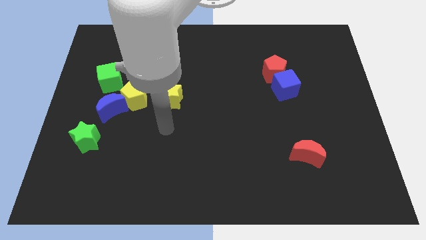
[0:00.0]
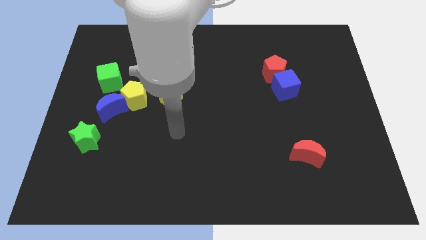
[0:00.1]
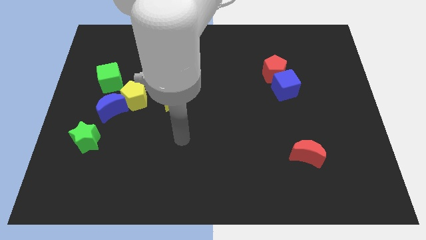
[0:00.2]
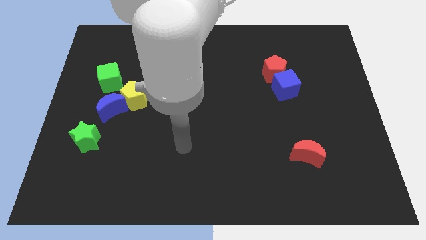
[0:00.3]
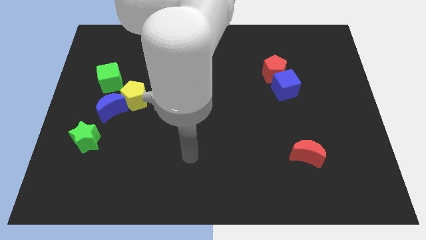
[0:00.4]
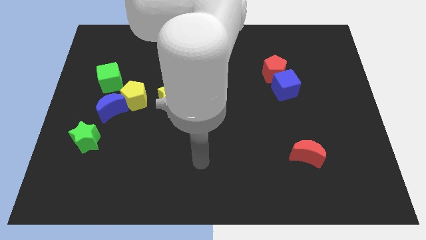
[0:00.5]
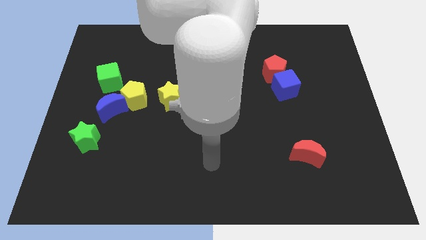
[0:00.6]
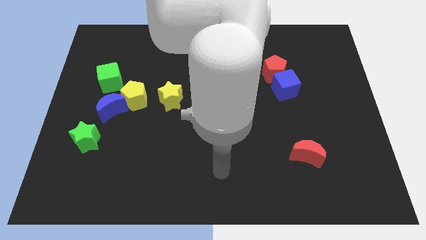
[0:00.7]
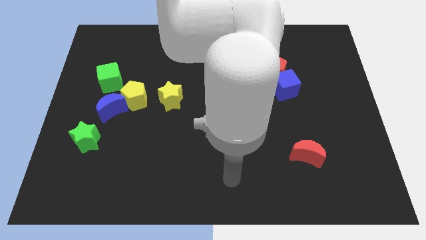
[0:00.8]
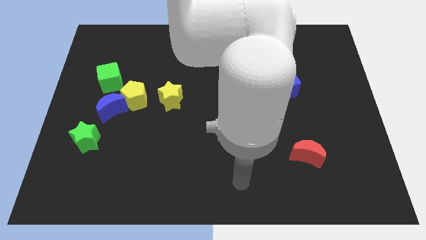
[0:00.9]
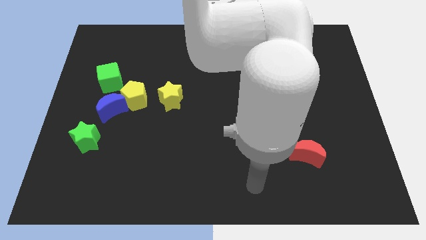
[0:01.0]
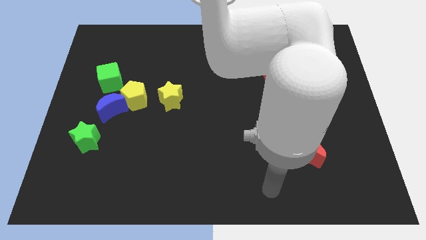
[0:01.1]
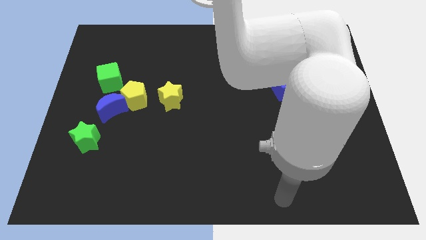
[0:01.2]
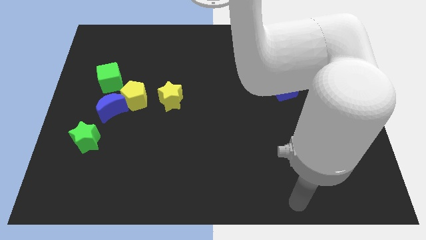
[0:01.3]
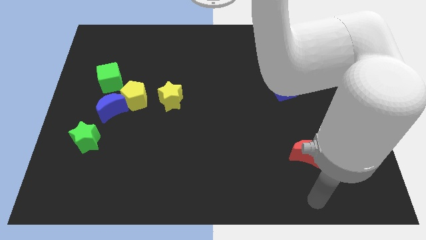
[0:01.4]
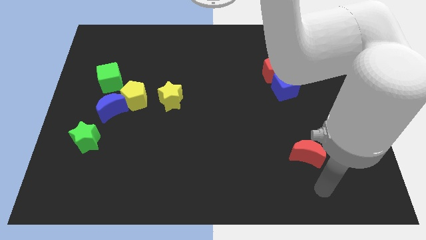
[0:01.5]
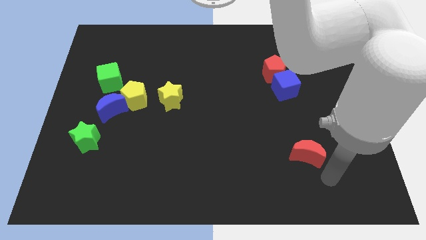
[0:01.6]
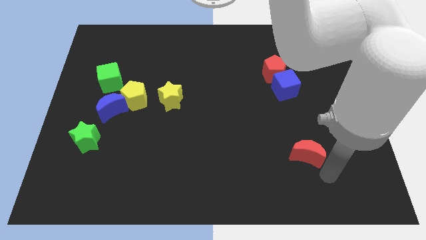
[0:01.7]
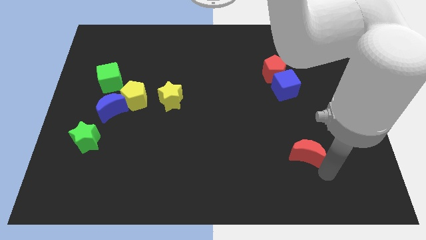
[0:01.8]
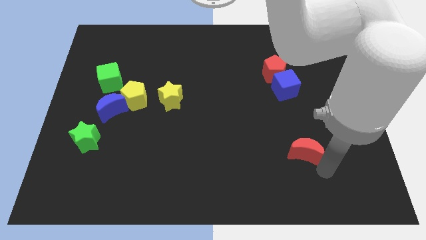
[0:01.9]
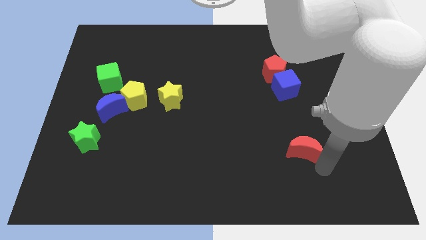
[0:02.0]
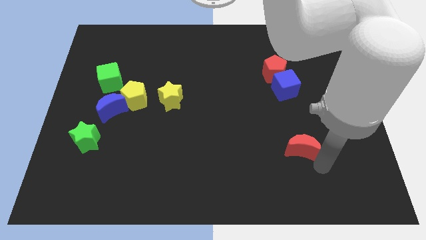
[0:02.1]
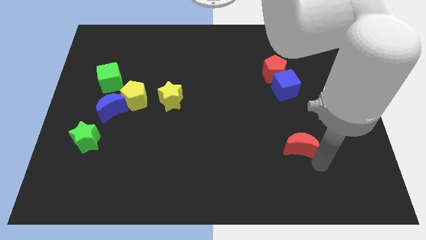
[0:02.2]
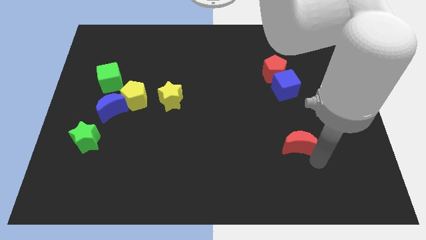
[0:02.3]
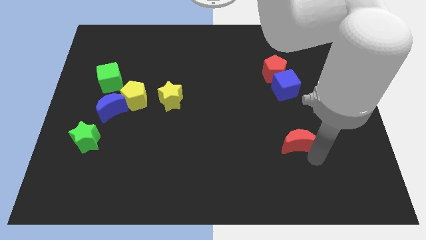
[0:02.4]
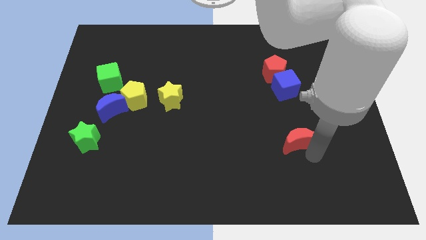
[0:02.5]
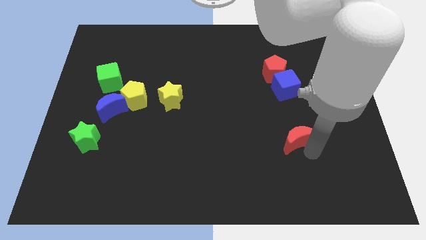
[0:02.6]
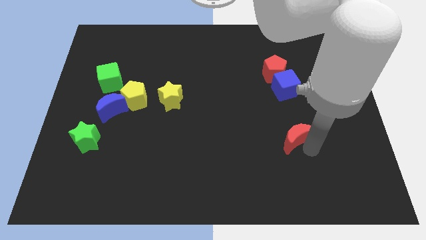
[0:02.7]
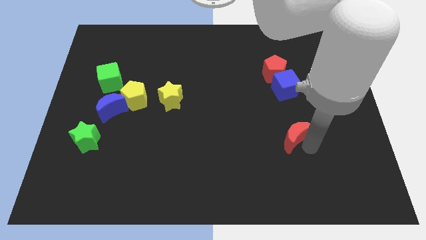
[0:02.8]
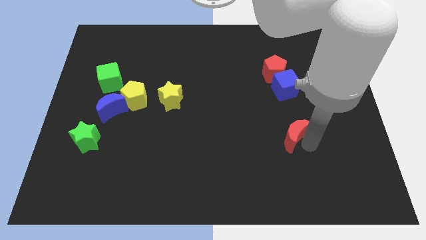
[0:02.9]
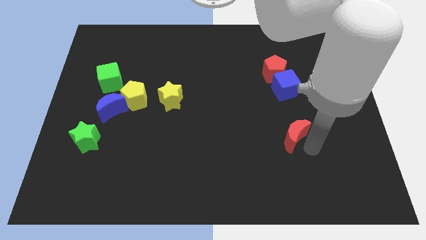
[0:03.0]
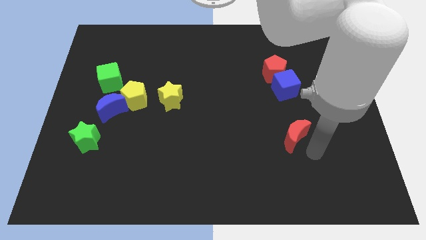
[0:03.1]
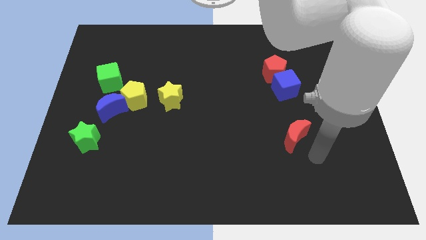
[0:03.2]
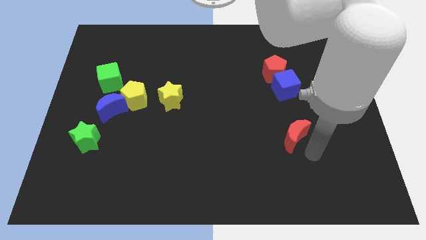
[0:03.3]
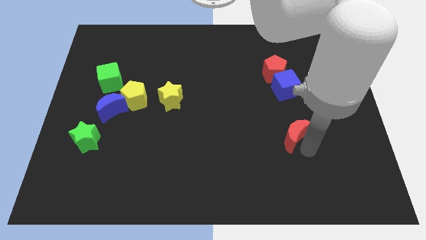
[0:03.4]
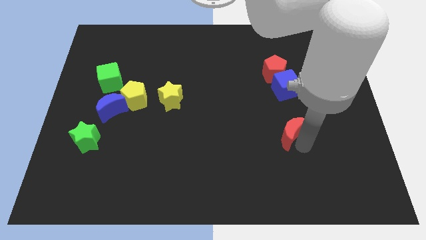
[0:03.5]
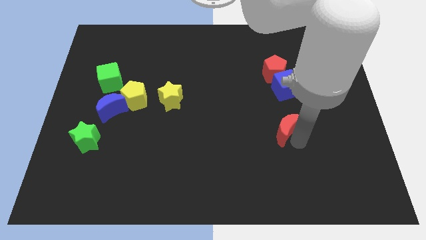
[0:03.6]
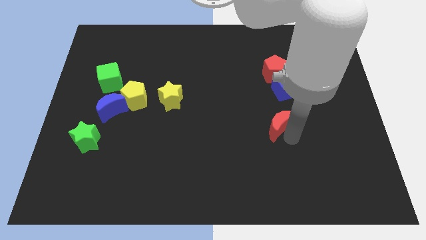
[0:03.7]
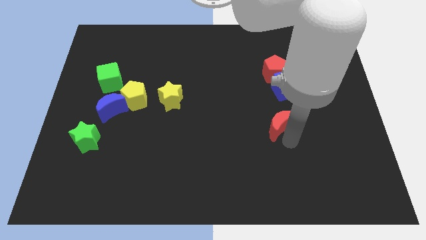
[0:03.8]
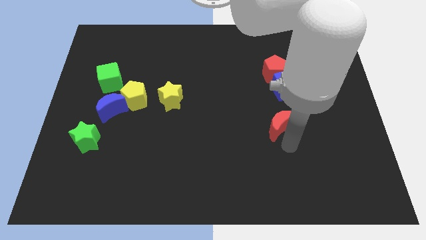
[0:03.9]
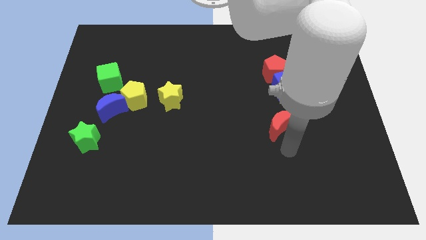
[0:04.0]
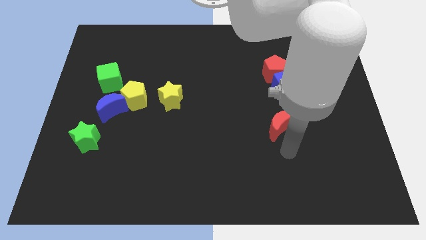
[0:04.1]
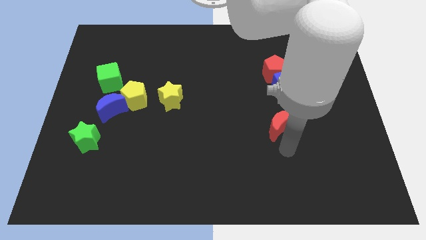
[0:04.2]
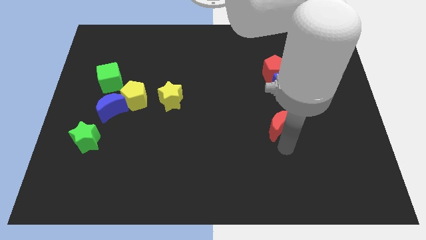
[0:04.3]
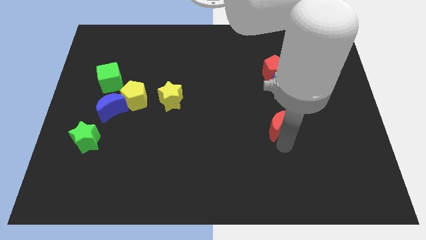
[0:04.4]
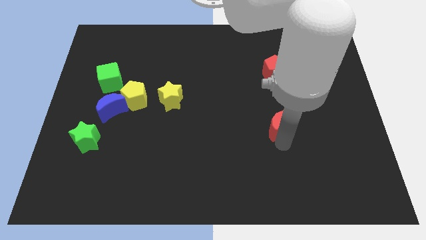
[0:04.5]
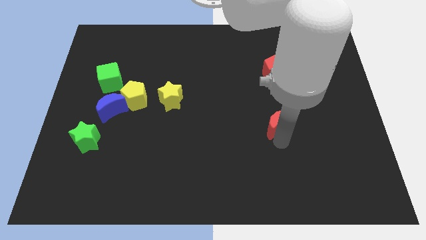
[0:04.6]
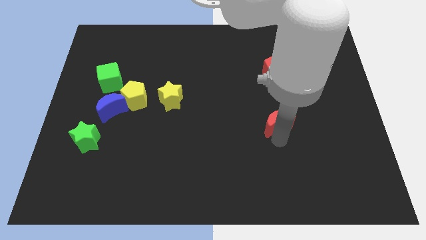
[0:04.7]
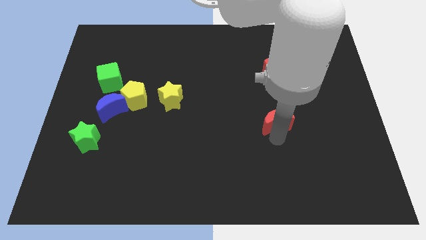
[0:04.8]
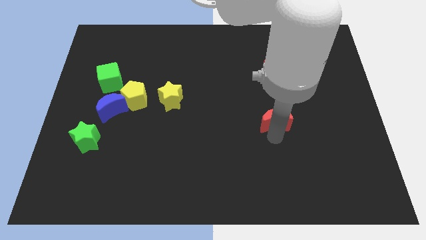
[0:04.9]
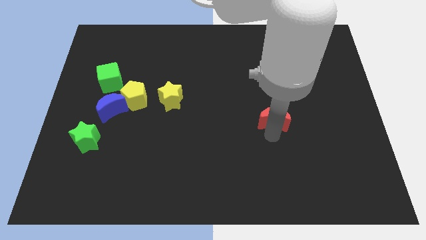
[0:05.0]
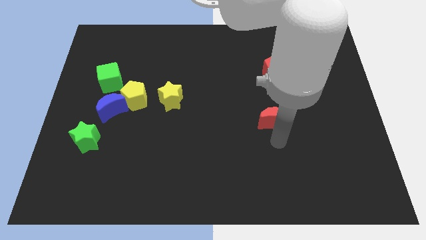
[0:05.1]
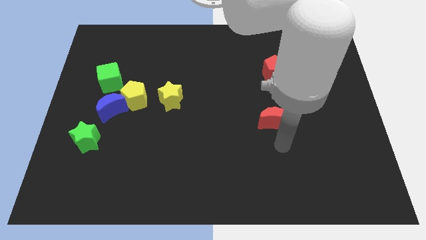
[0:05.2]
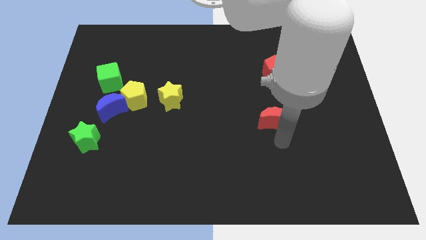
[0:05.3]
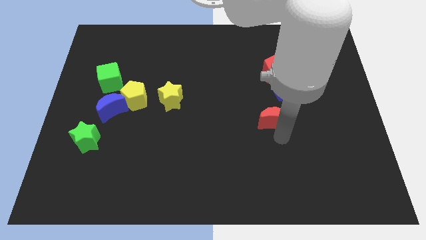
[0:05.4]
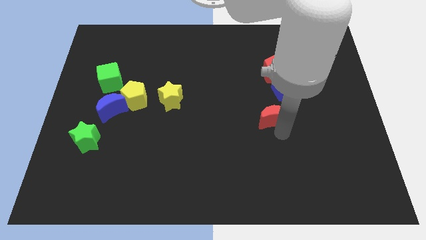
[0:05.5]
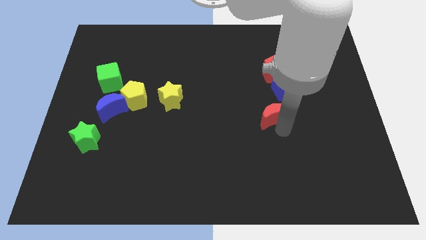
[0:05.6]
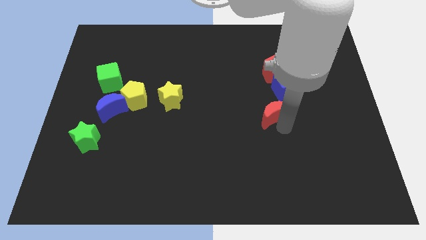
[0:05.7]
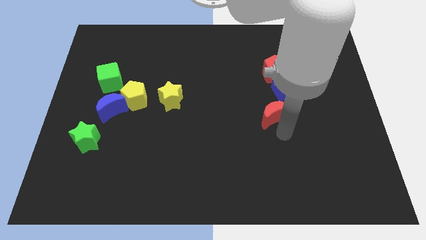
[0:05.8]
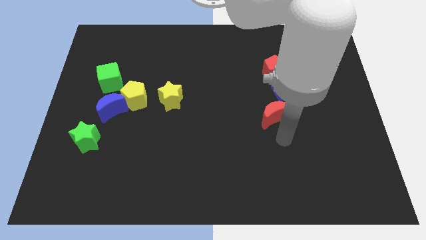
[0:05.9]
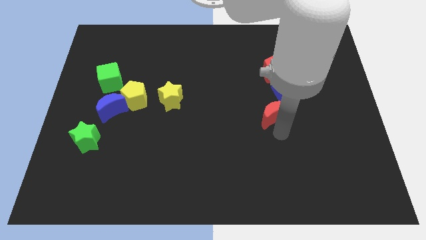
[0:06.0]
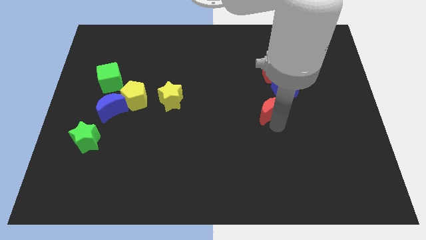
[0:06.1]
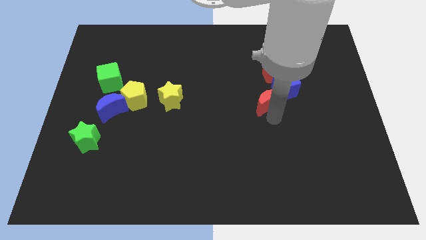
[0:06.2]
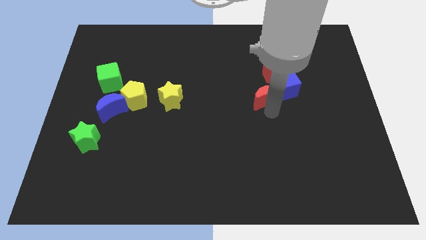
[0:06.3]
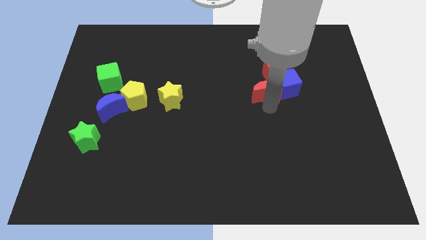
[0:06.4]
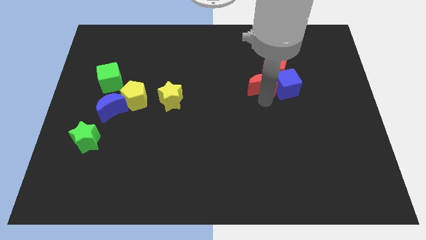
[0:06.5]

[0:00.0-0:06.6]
move the red moon close to the red pentagon
